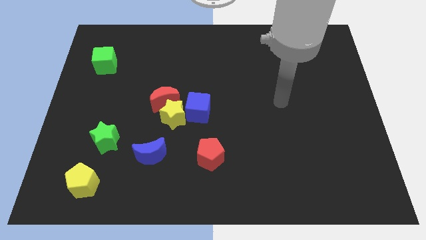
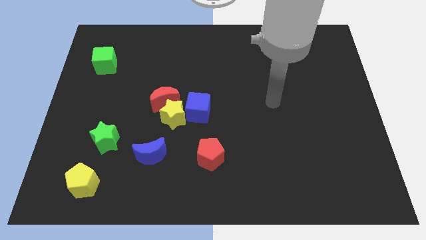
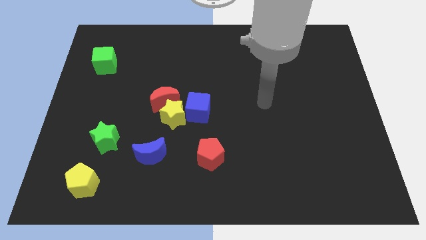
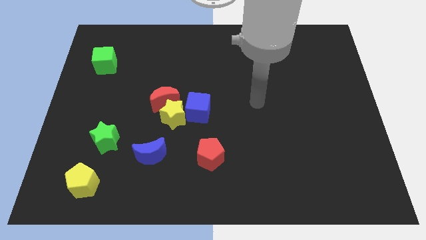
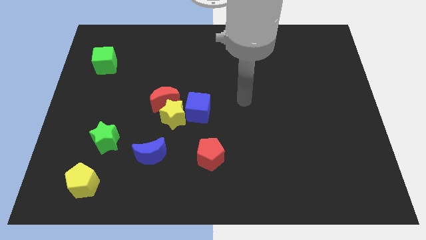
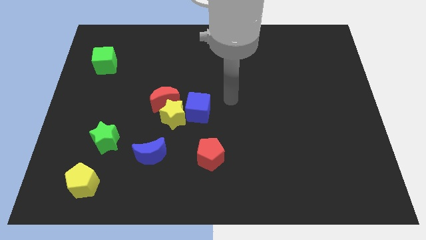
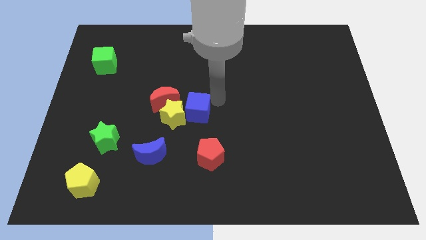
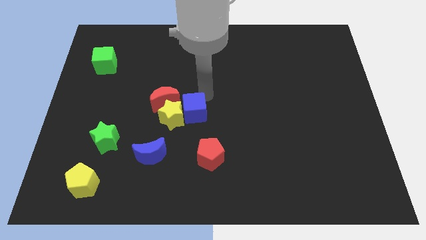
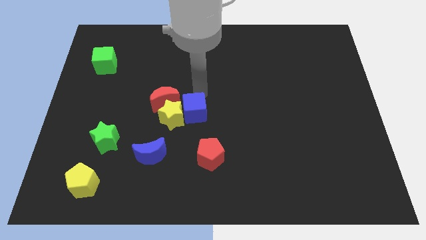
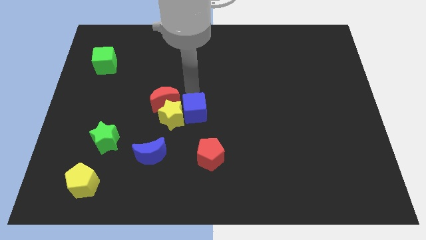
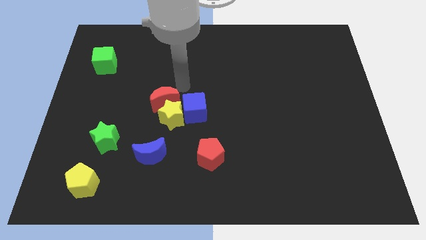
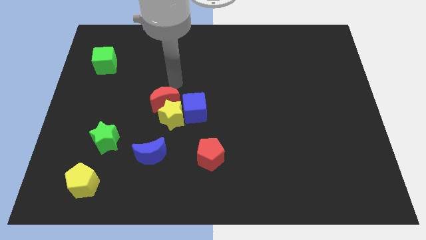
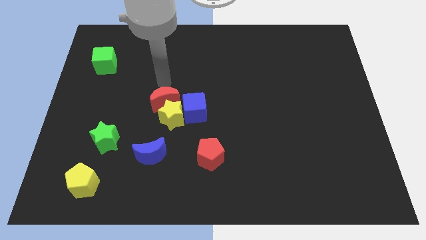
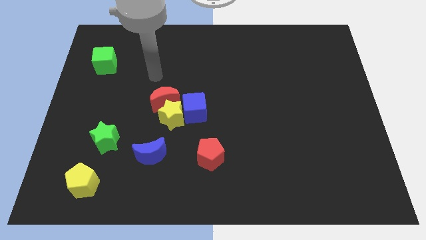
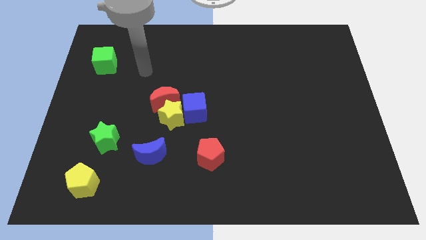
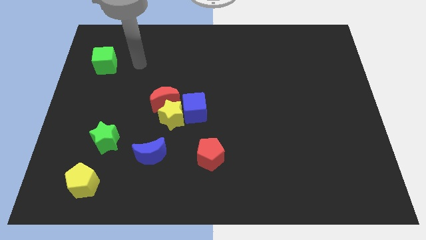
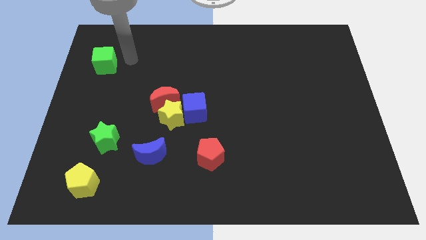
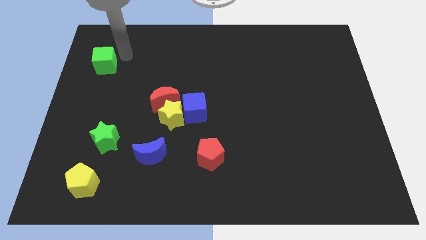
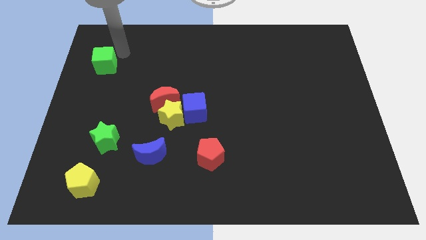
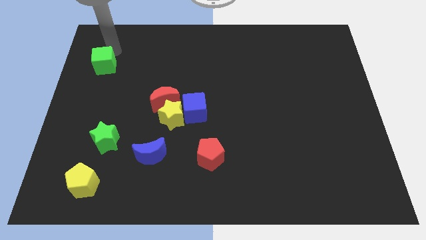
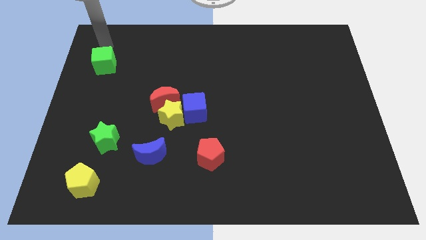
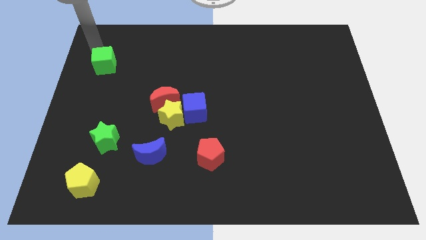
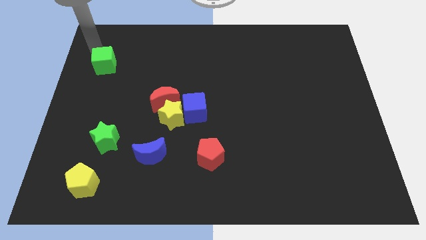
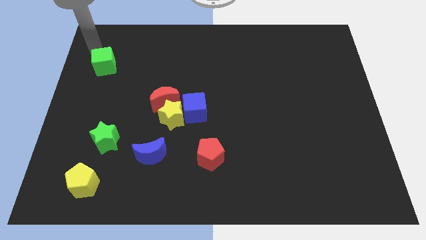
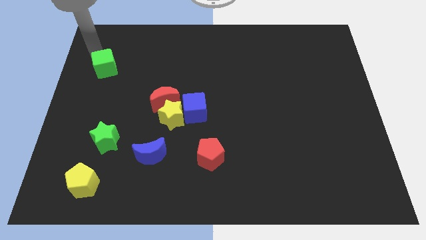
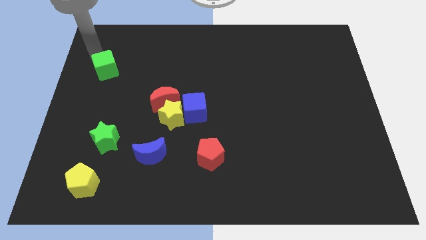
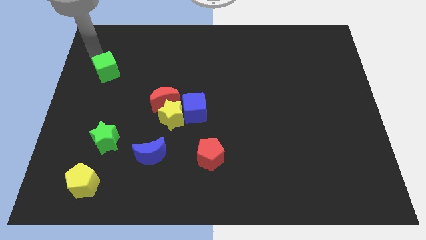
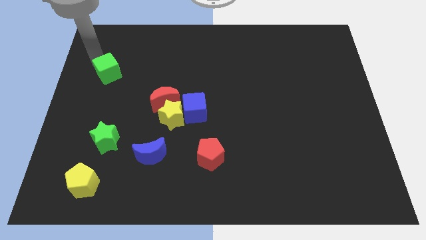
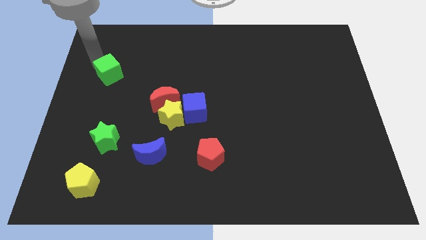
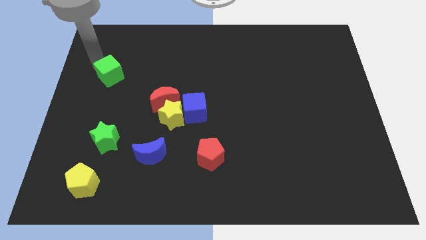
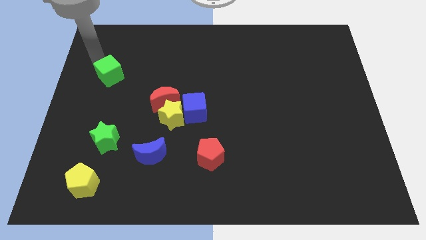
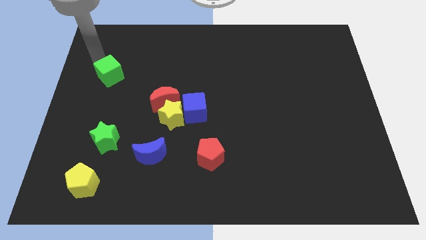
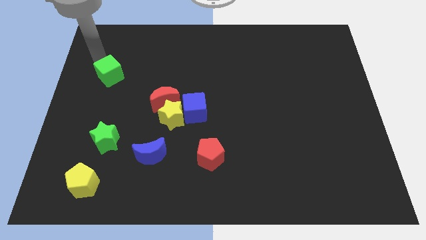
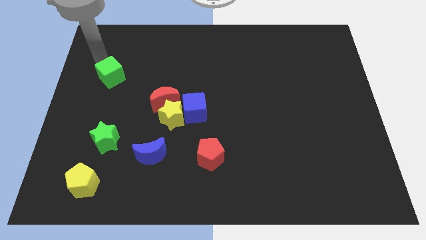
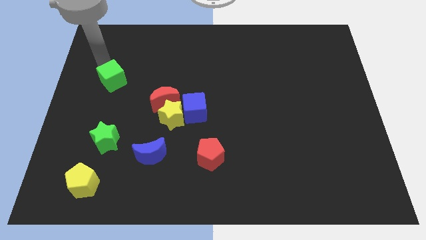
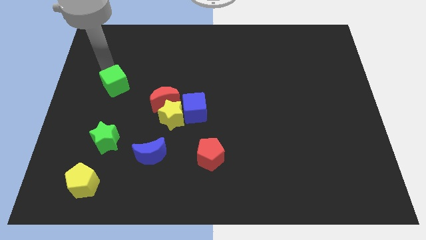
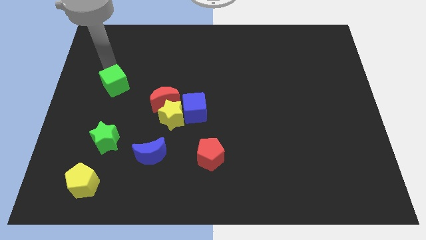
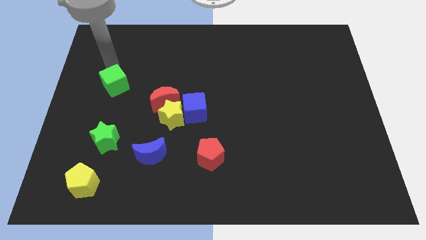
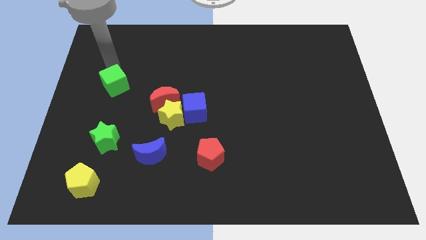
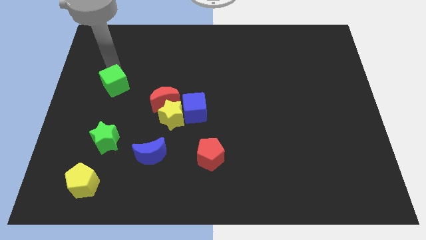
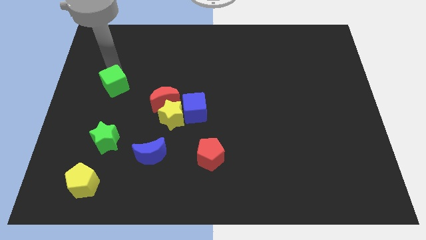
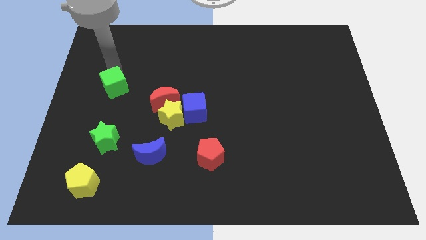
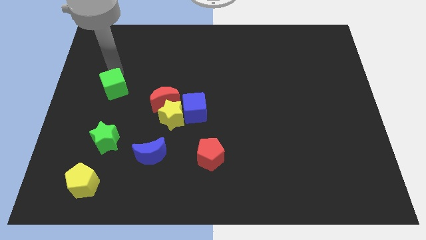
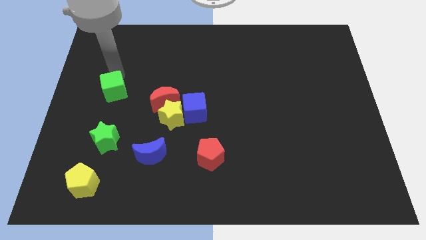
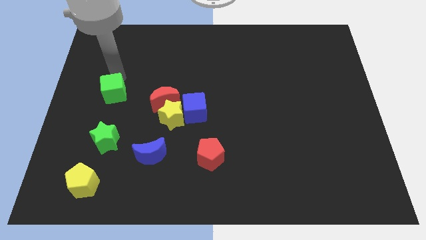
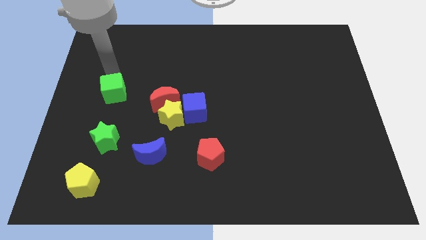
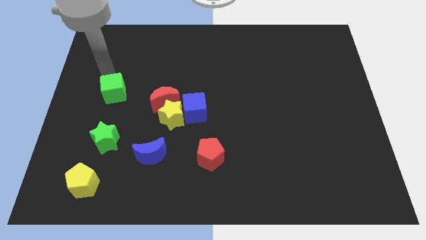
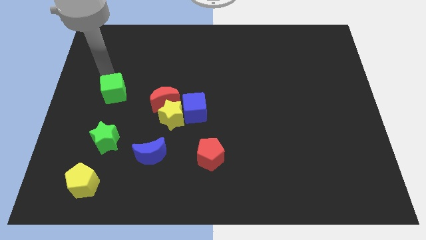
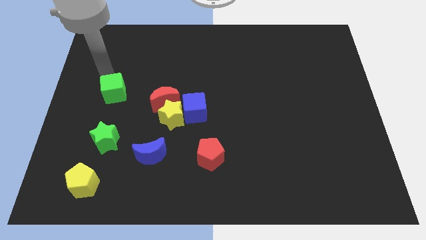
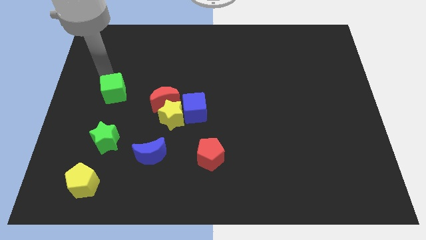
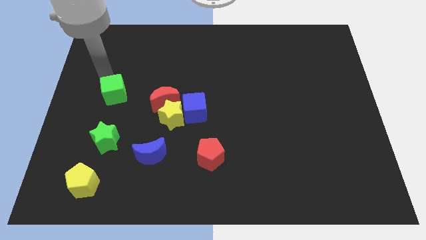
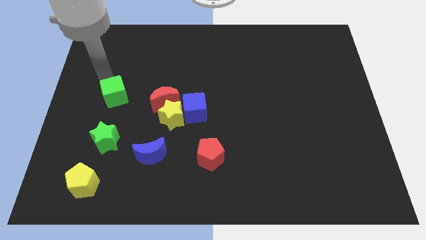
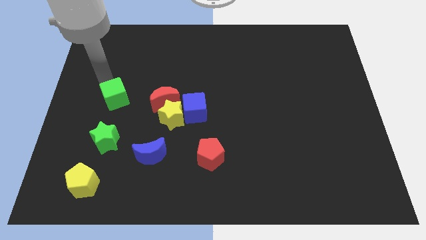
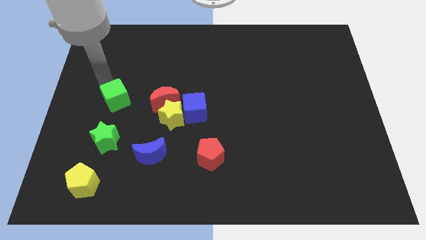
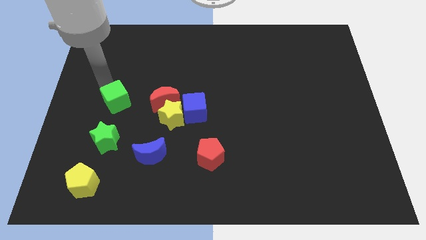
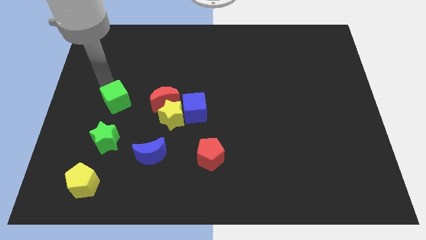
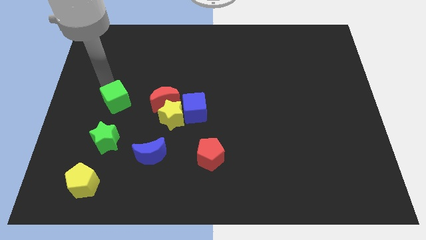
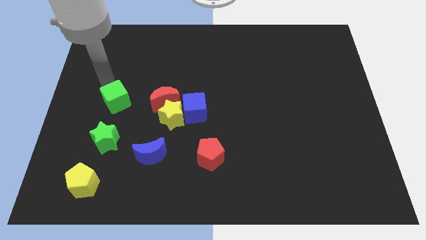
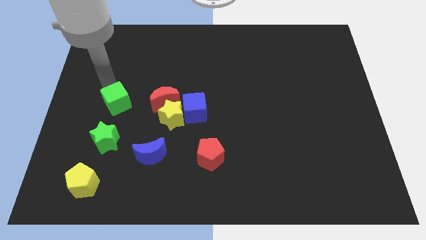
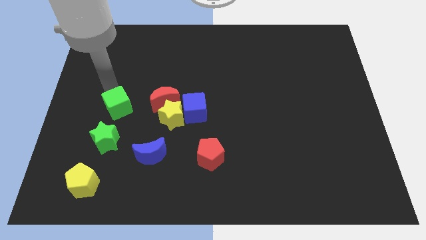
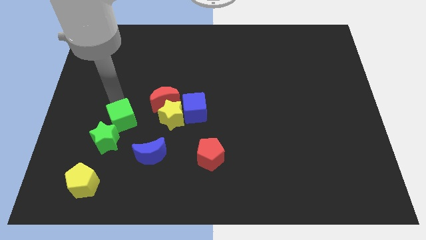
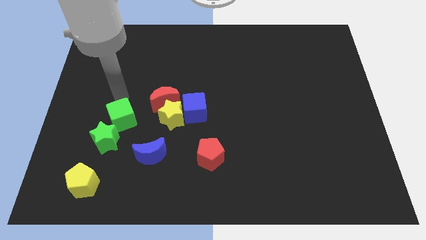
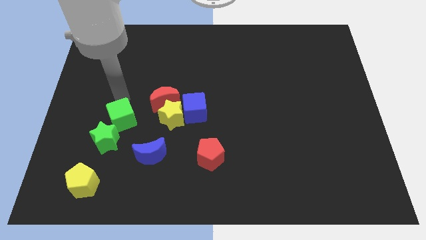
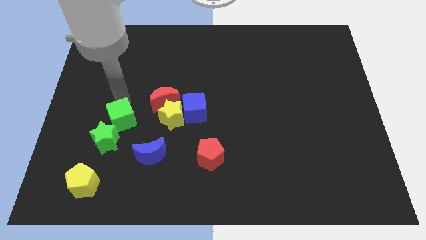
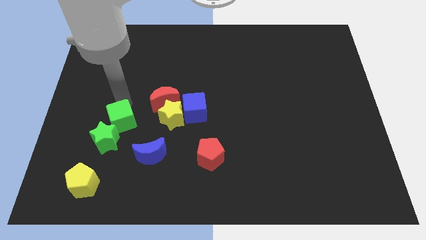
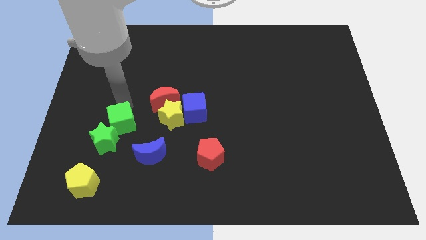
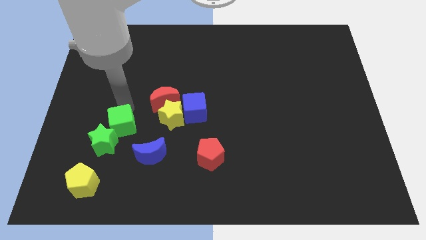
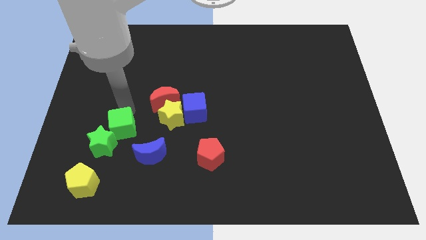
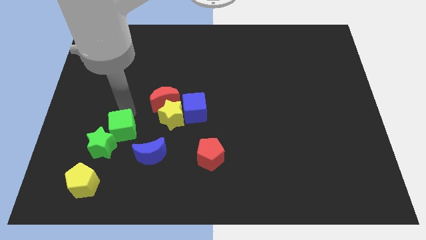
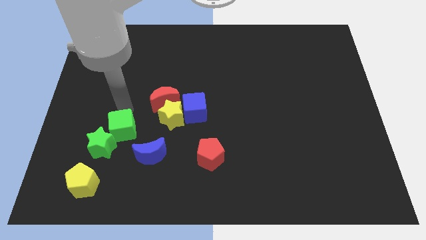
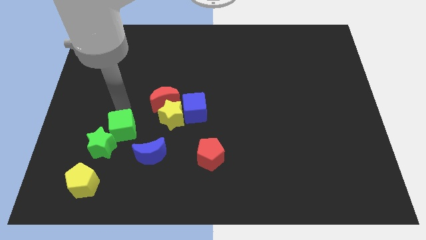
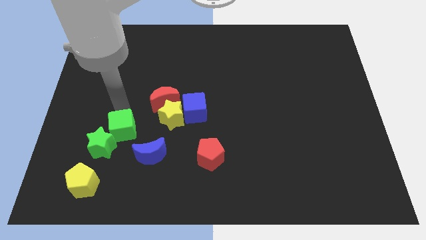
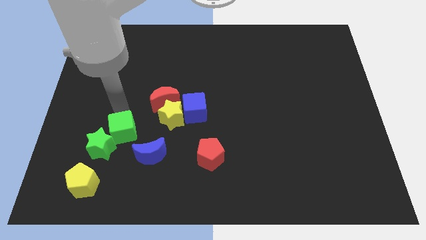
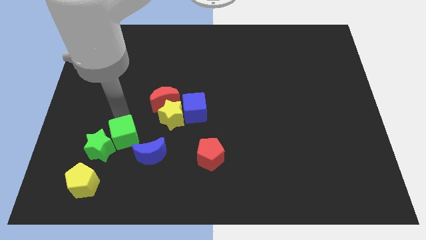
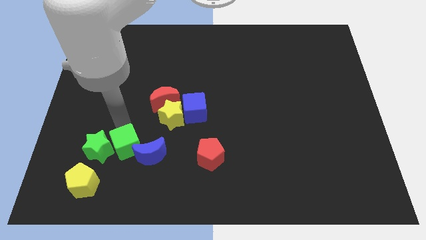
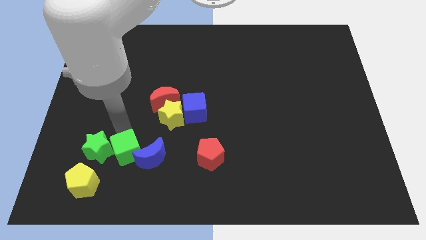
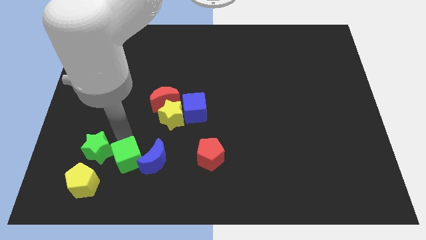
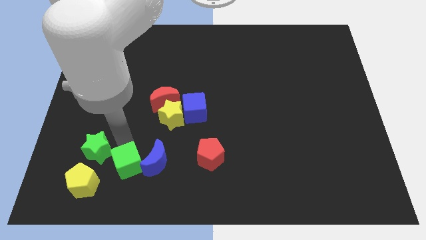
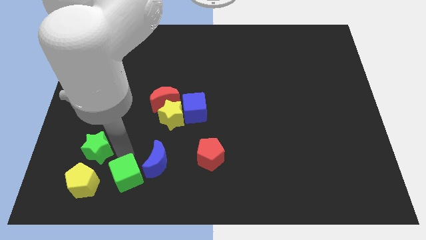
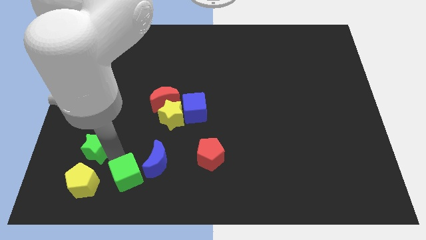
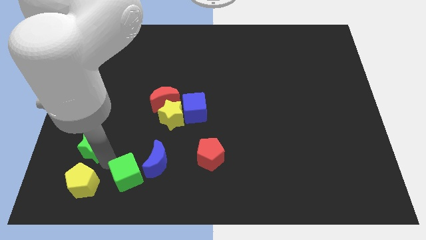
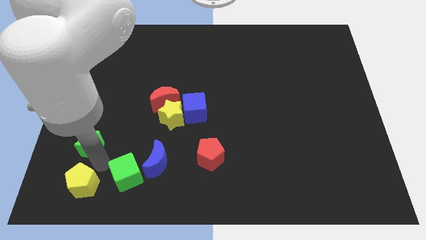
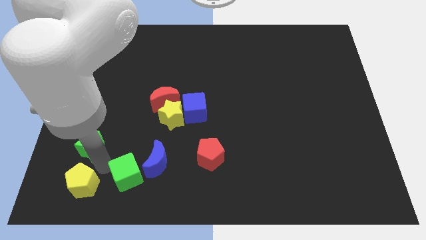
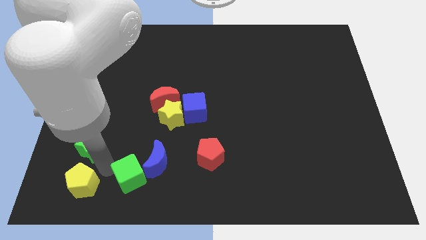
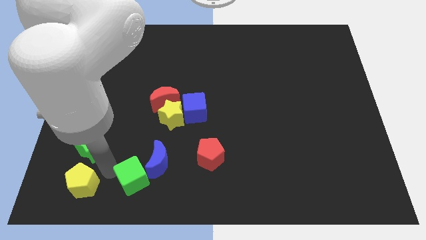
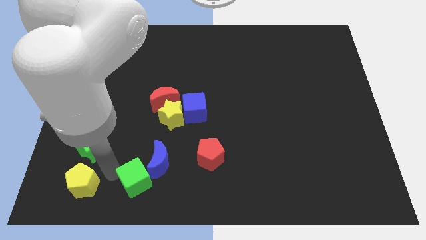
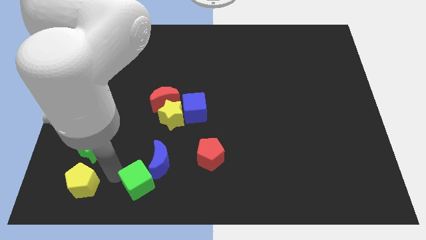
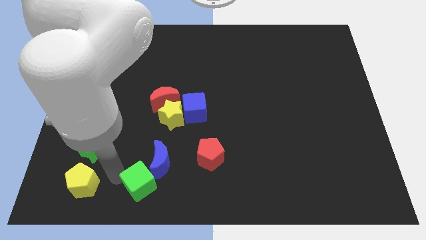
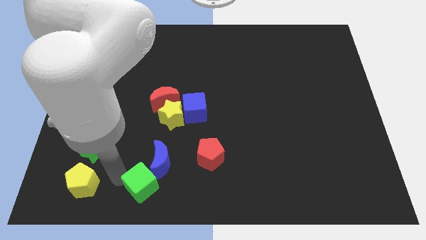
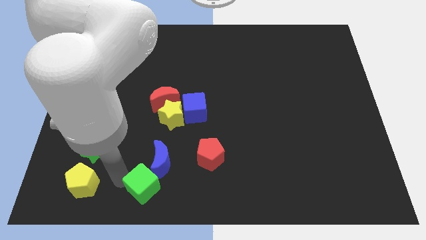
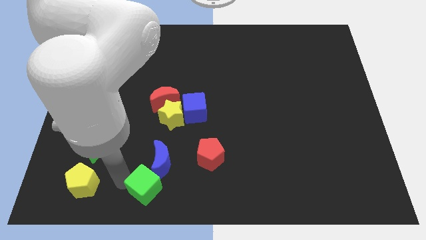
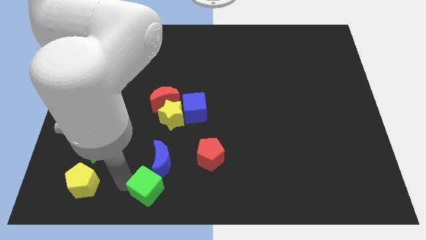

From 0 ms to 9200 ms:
put the green cube to the bottom
